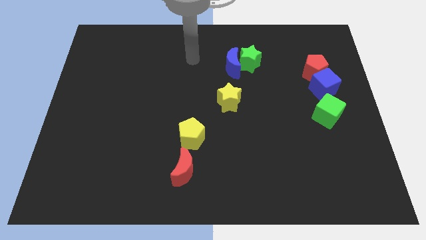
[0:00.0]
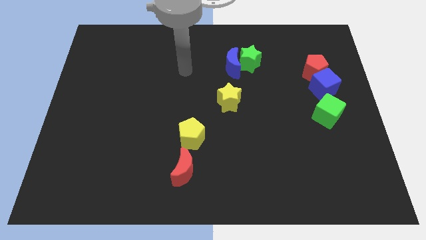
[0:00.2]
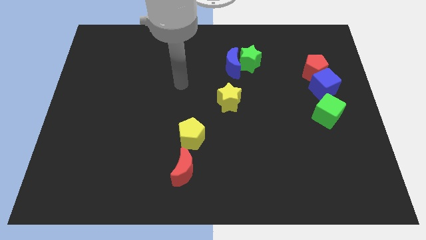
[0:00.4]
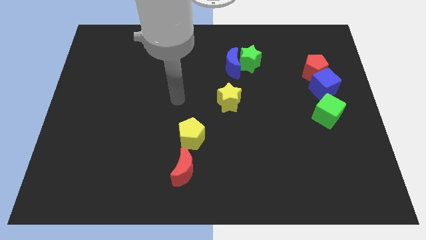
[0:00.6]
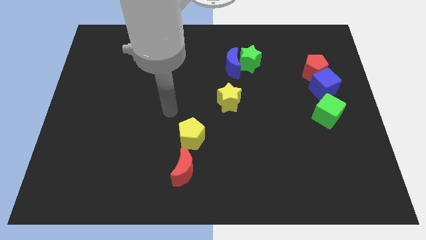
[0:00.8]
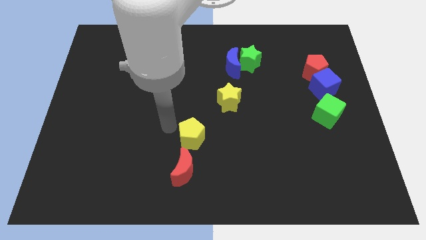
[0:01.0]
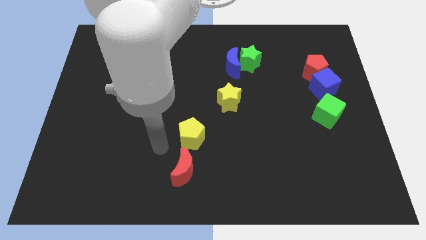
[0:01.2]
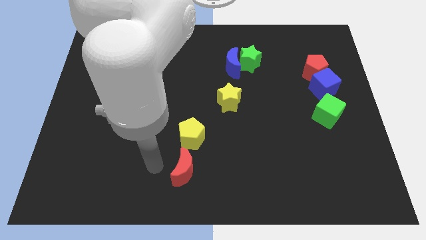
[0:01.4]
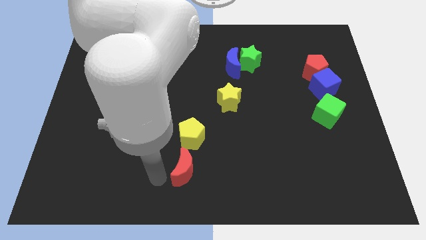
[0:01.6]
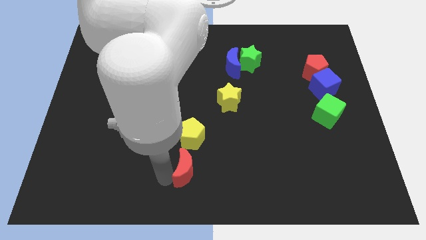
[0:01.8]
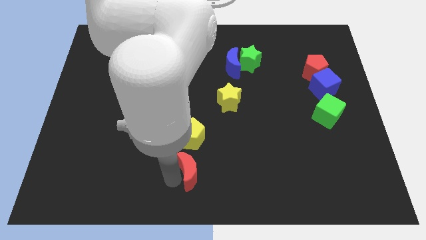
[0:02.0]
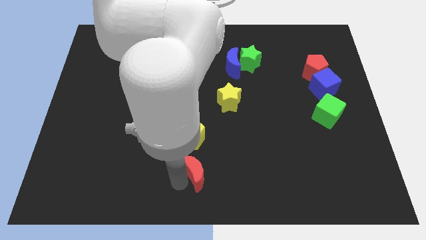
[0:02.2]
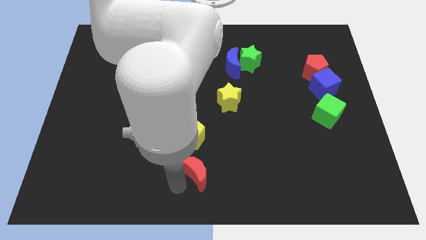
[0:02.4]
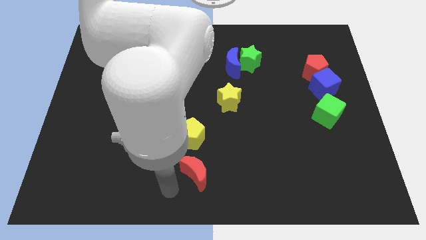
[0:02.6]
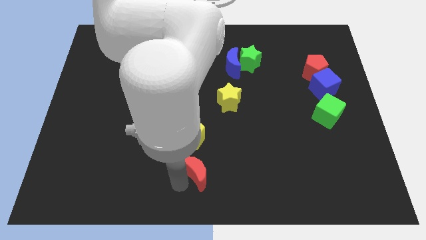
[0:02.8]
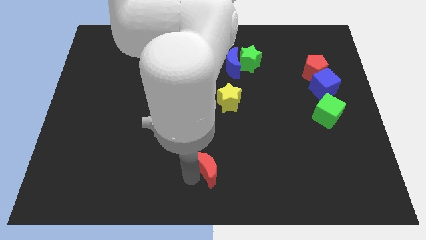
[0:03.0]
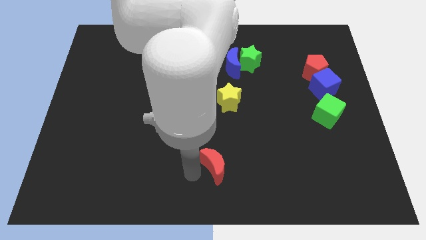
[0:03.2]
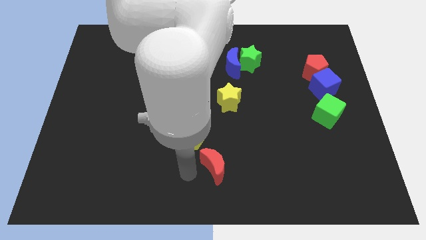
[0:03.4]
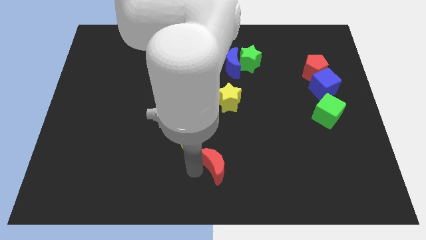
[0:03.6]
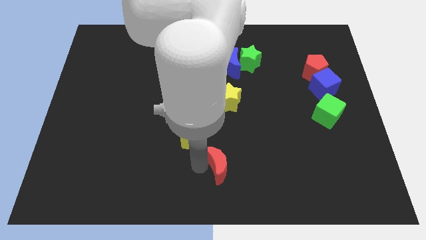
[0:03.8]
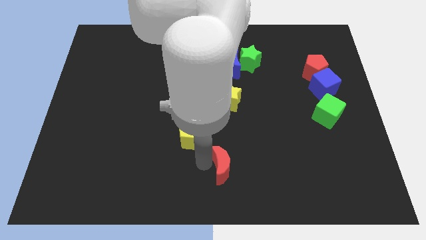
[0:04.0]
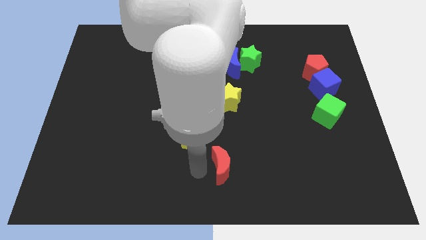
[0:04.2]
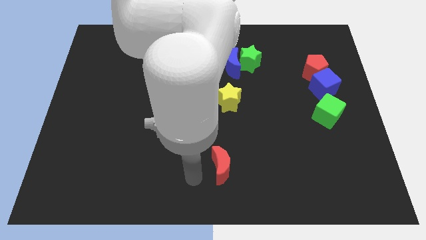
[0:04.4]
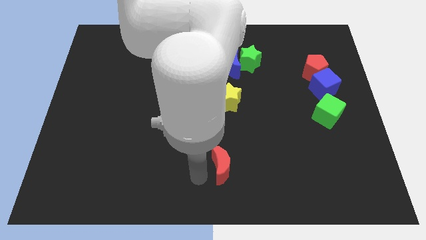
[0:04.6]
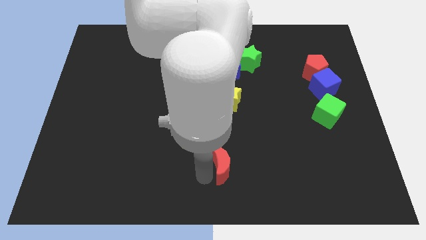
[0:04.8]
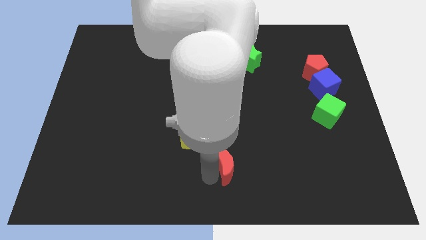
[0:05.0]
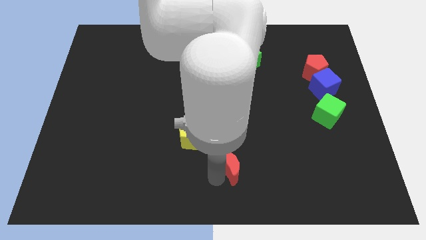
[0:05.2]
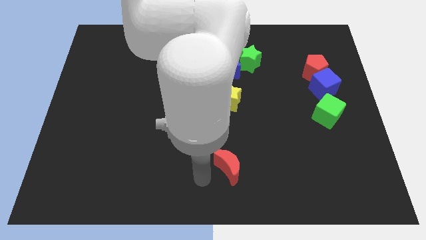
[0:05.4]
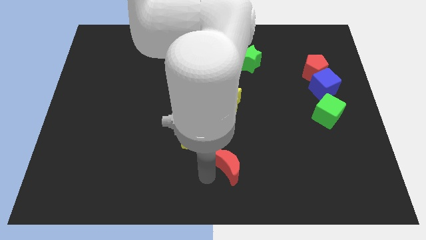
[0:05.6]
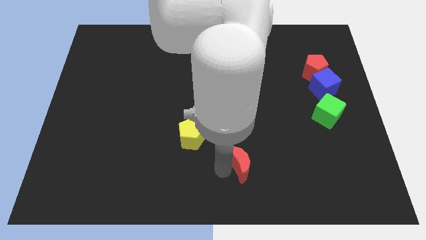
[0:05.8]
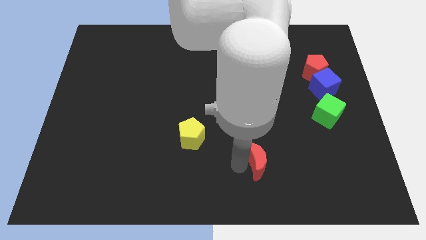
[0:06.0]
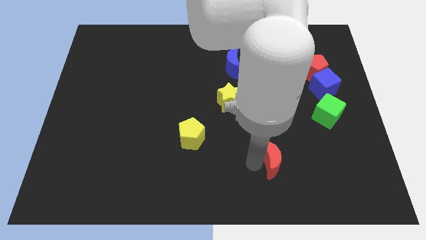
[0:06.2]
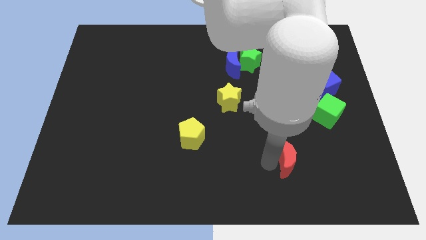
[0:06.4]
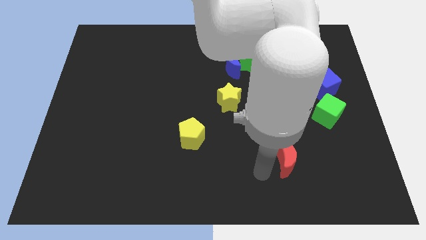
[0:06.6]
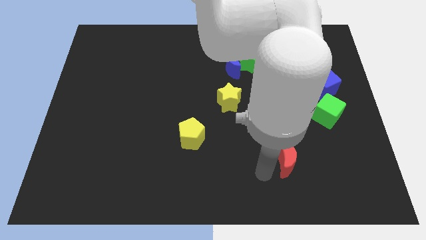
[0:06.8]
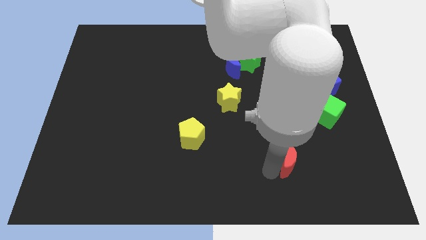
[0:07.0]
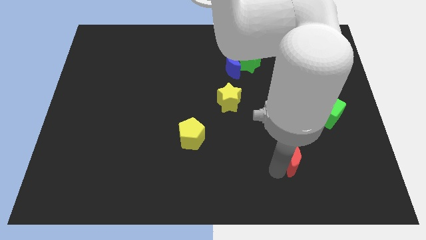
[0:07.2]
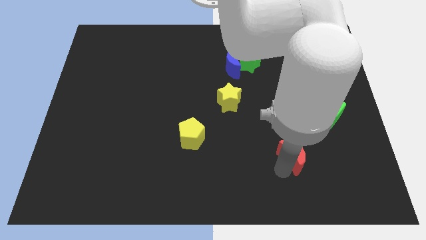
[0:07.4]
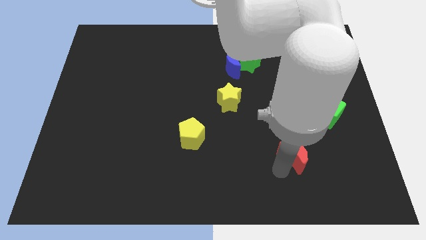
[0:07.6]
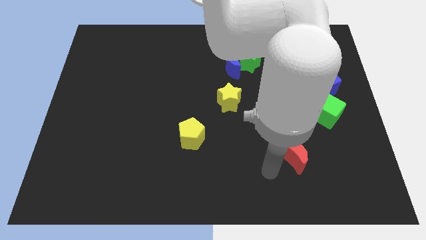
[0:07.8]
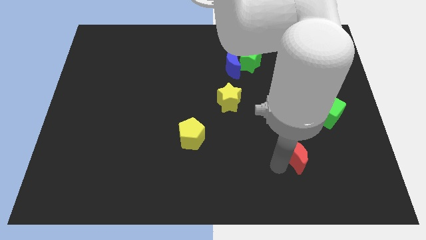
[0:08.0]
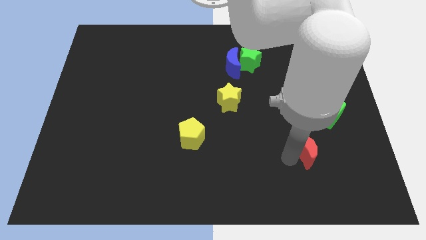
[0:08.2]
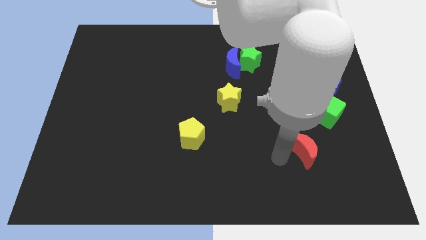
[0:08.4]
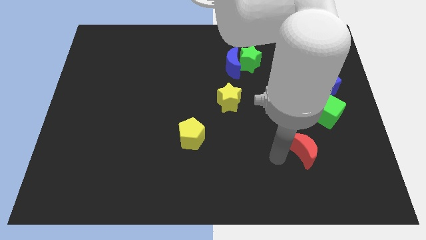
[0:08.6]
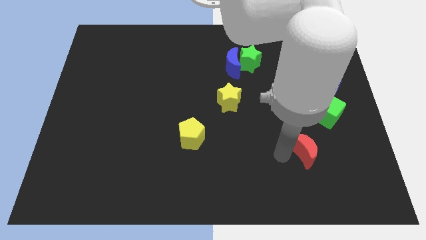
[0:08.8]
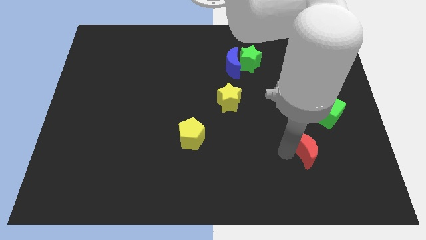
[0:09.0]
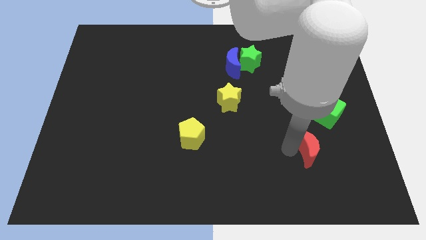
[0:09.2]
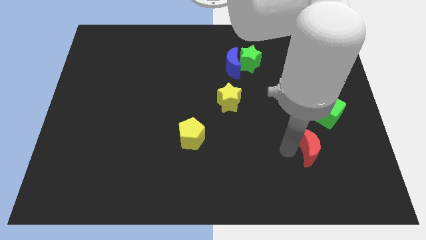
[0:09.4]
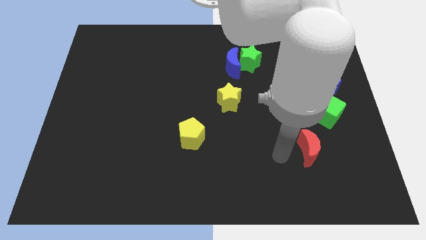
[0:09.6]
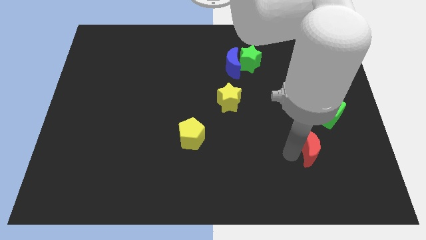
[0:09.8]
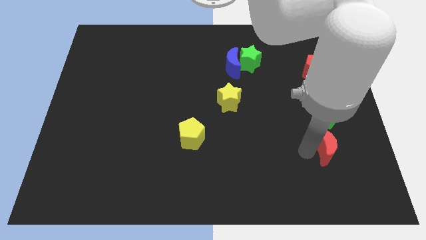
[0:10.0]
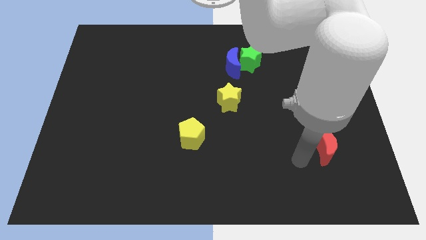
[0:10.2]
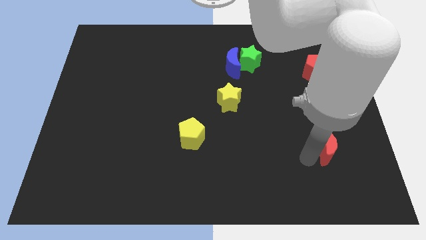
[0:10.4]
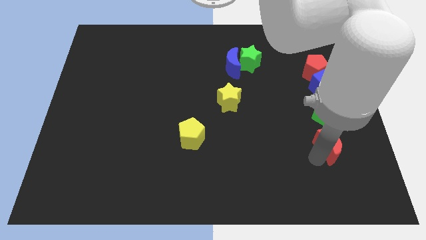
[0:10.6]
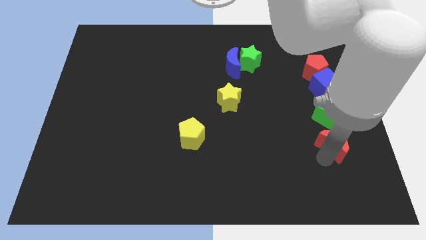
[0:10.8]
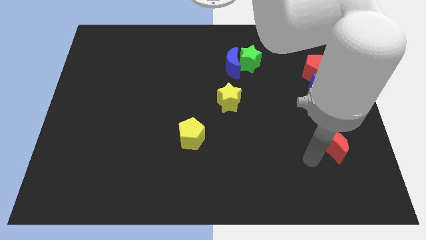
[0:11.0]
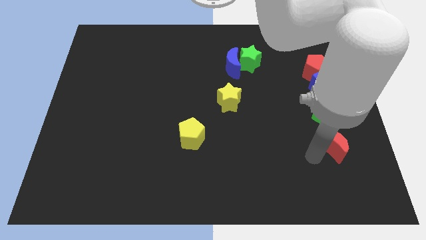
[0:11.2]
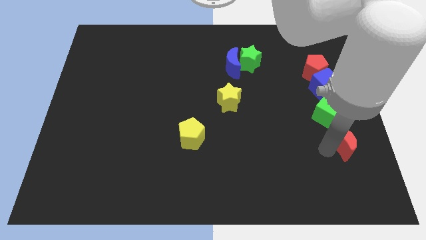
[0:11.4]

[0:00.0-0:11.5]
push the red moon below the blue cube

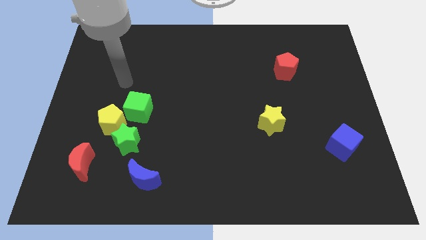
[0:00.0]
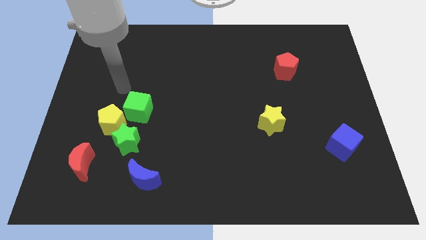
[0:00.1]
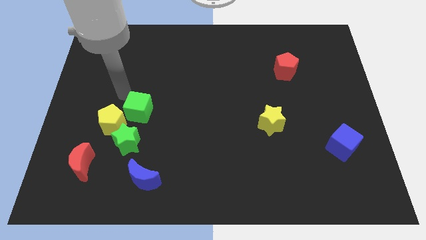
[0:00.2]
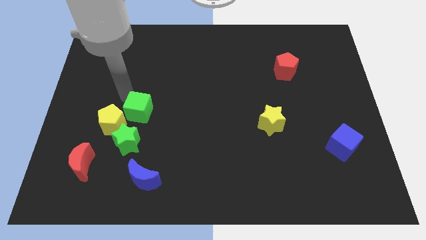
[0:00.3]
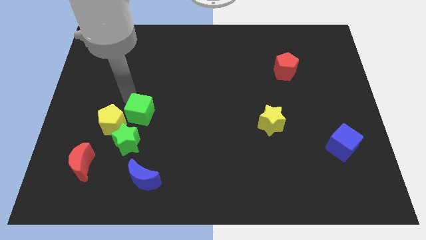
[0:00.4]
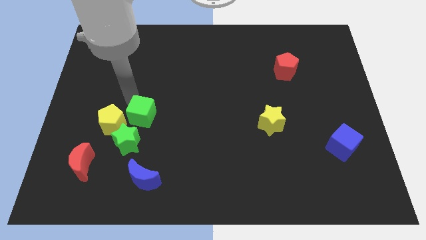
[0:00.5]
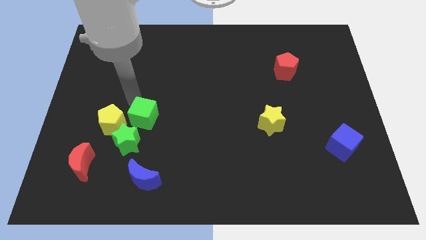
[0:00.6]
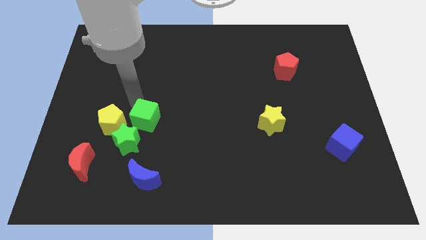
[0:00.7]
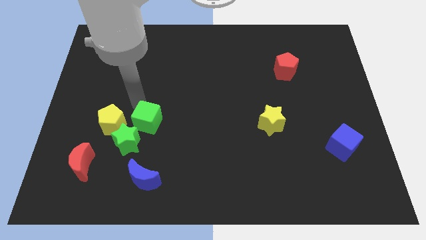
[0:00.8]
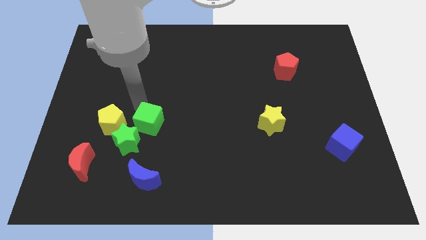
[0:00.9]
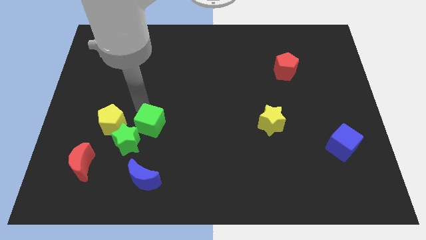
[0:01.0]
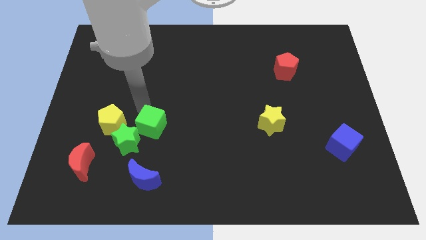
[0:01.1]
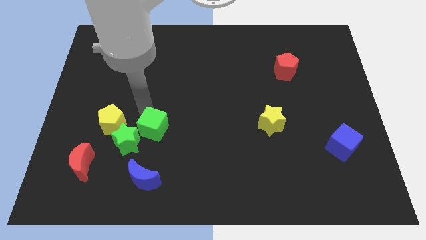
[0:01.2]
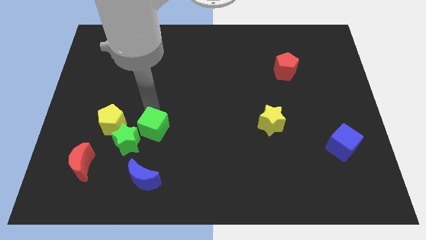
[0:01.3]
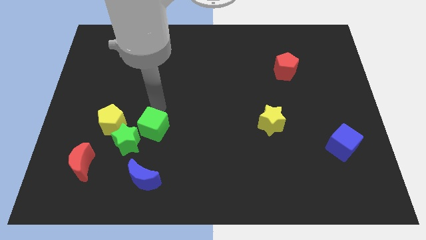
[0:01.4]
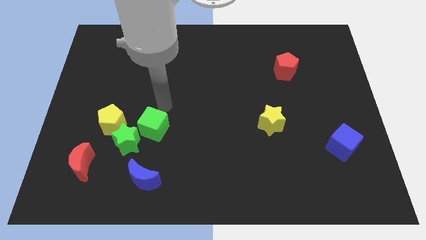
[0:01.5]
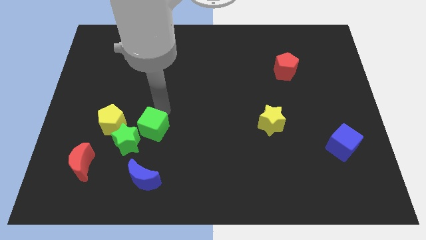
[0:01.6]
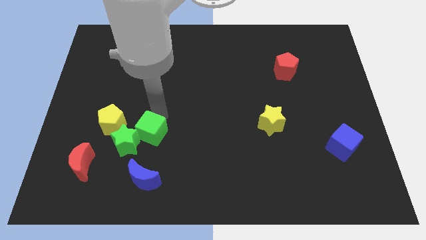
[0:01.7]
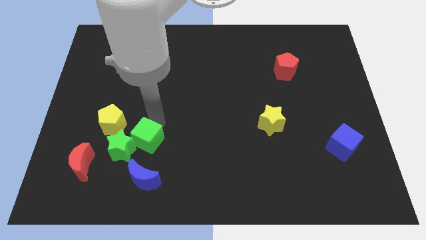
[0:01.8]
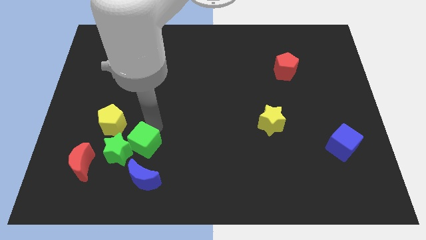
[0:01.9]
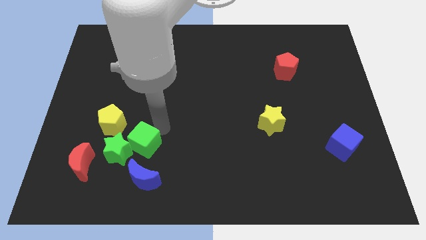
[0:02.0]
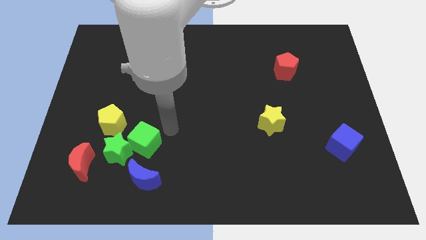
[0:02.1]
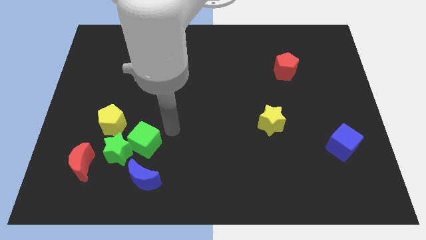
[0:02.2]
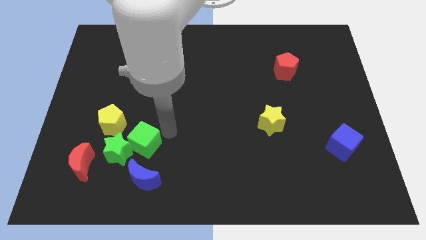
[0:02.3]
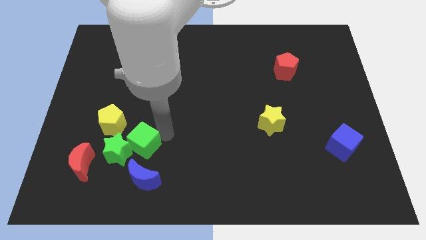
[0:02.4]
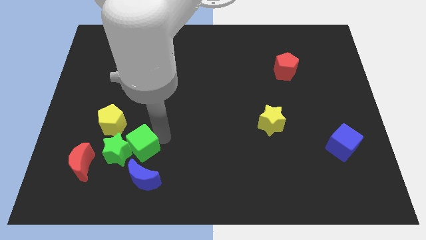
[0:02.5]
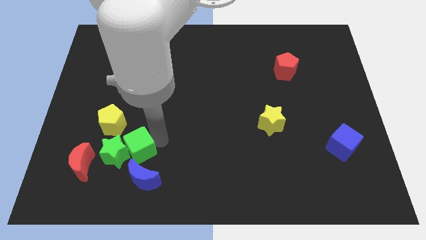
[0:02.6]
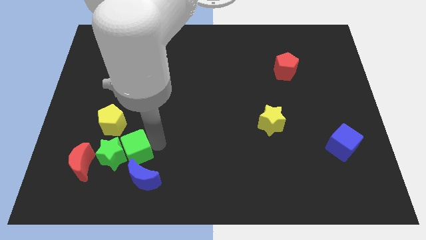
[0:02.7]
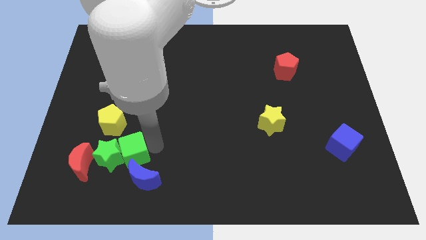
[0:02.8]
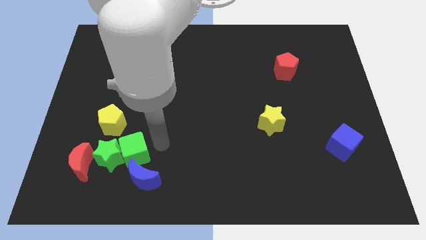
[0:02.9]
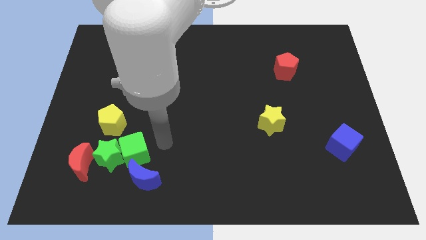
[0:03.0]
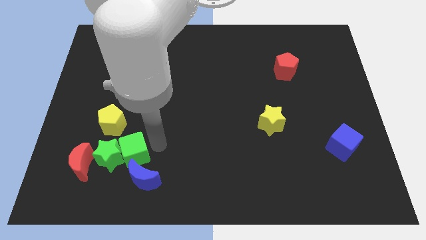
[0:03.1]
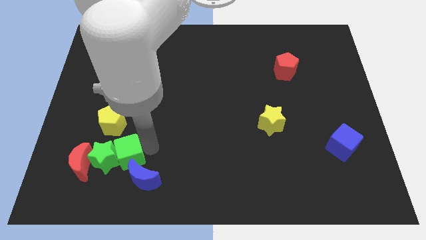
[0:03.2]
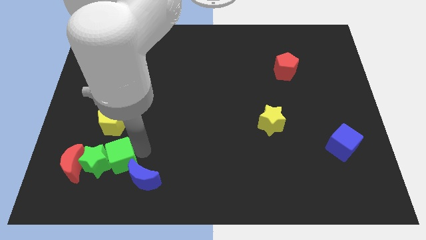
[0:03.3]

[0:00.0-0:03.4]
put the green cube to the bottom of the yellow pentagon
